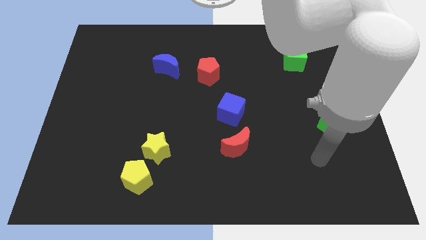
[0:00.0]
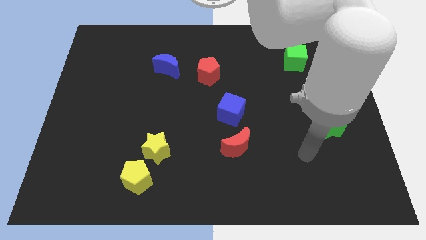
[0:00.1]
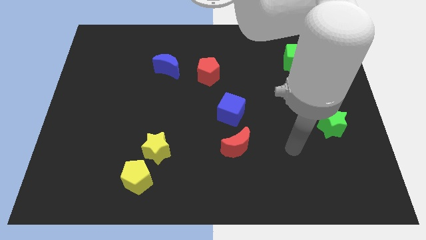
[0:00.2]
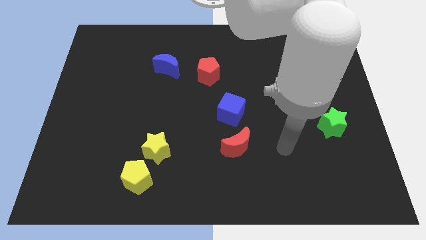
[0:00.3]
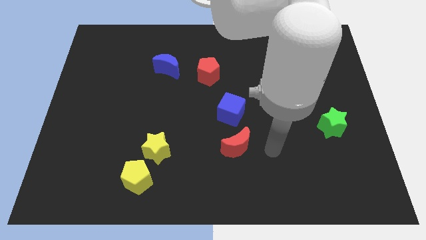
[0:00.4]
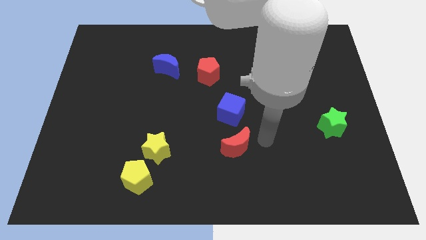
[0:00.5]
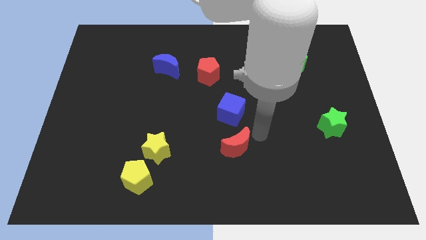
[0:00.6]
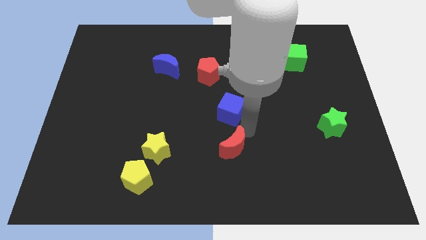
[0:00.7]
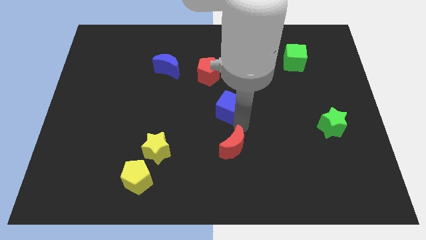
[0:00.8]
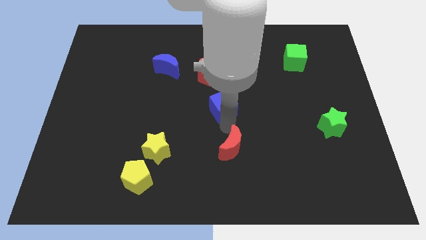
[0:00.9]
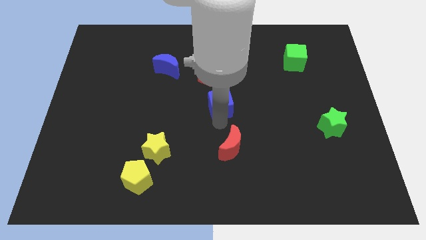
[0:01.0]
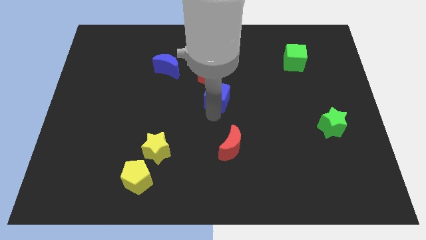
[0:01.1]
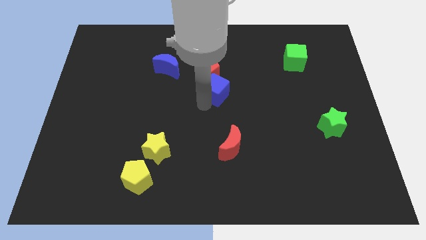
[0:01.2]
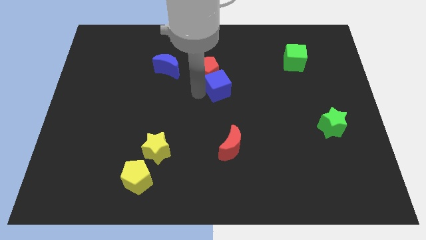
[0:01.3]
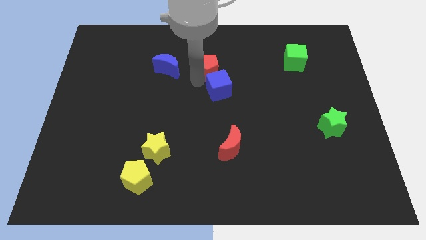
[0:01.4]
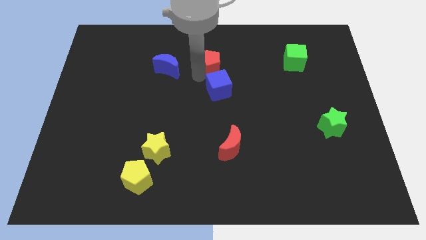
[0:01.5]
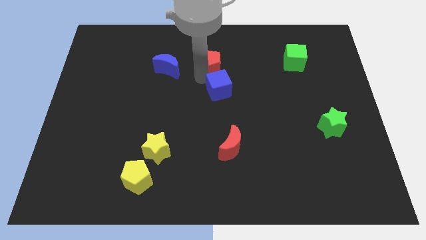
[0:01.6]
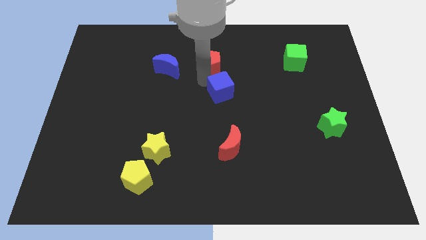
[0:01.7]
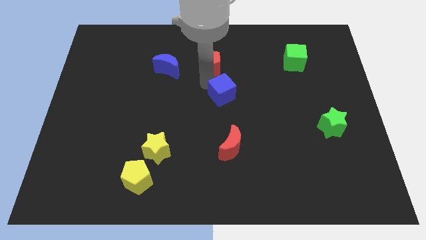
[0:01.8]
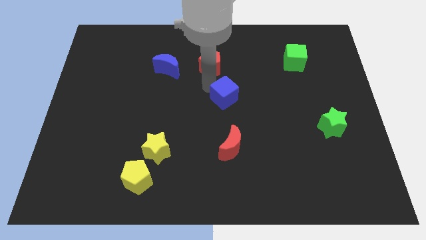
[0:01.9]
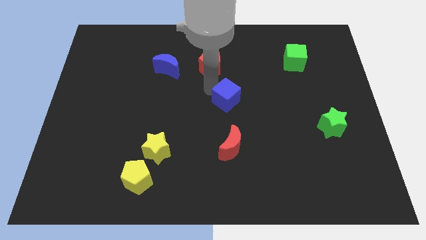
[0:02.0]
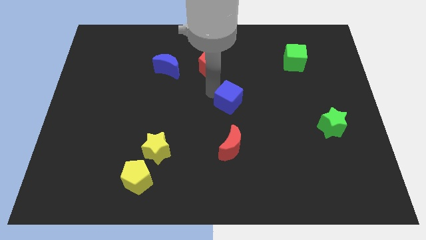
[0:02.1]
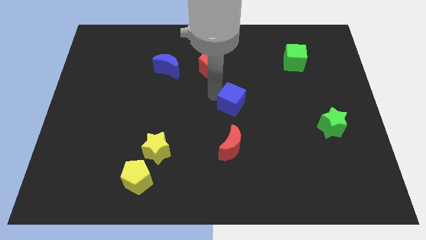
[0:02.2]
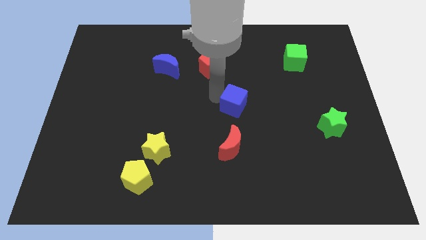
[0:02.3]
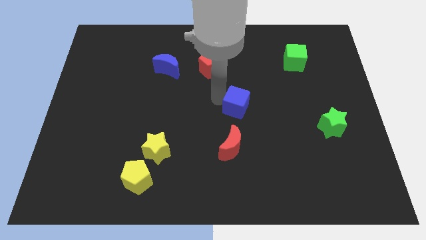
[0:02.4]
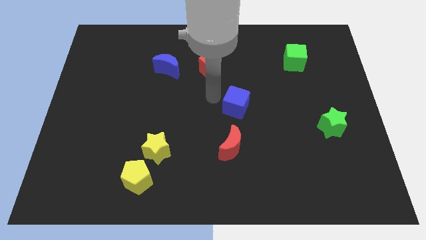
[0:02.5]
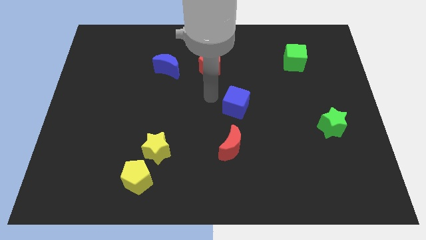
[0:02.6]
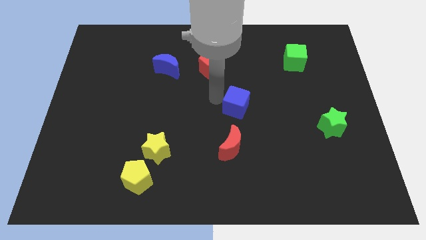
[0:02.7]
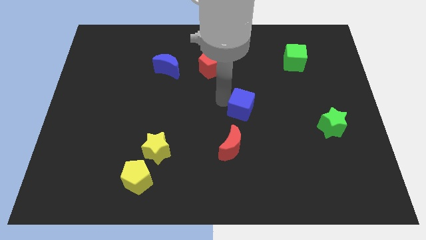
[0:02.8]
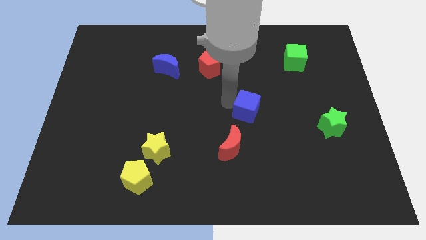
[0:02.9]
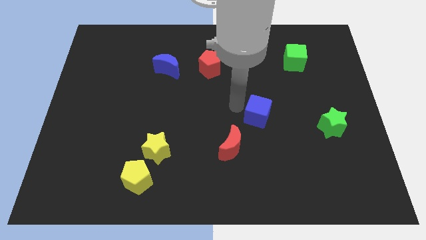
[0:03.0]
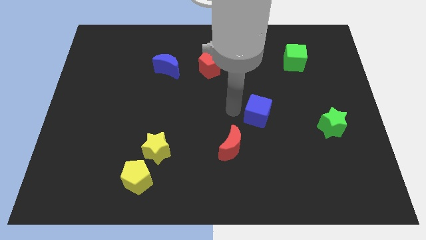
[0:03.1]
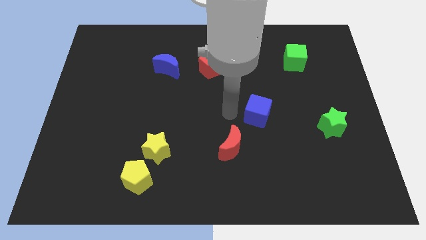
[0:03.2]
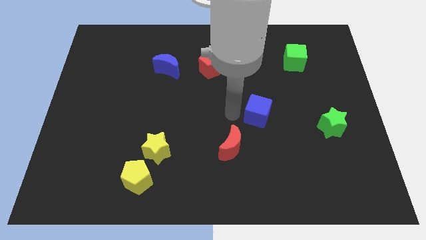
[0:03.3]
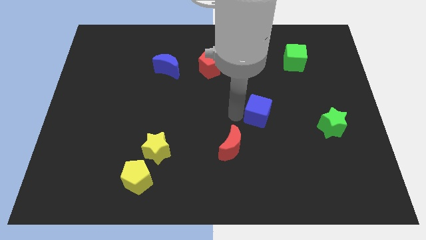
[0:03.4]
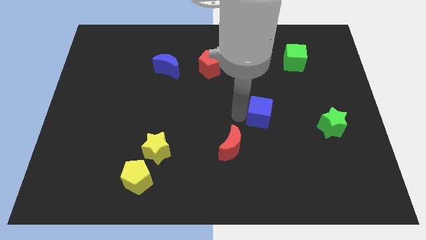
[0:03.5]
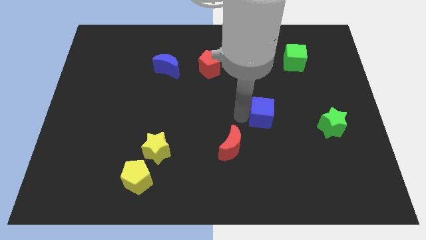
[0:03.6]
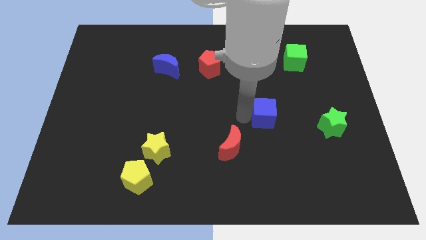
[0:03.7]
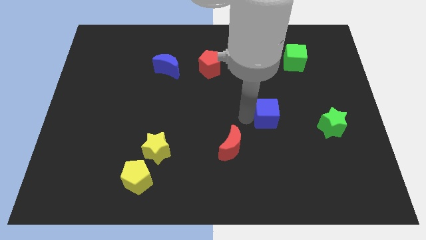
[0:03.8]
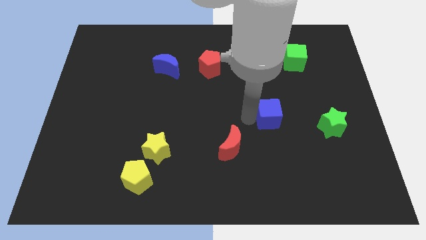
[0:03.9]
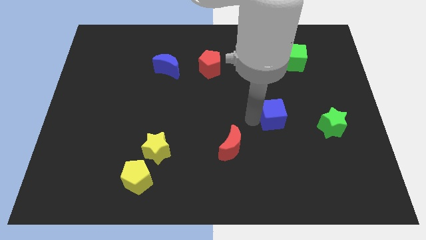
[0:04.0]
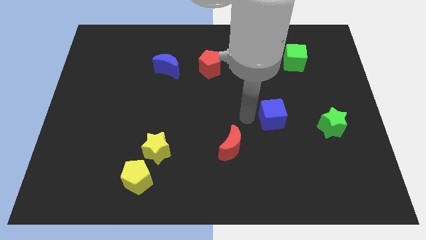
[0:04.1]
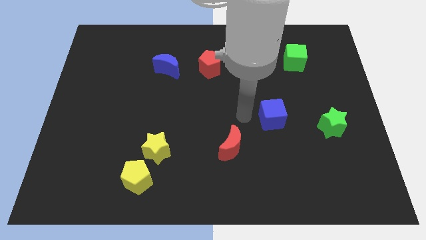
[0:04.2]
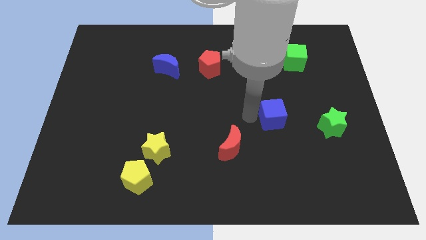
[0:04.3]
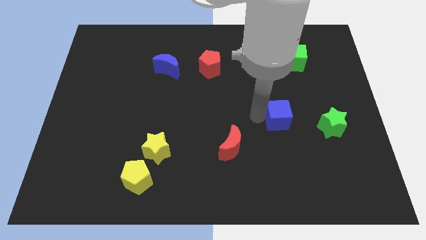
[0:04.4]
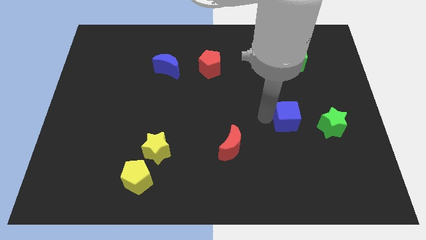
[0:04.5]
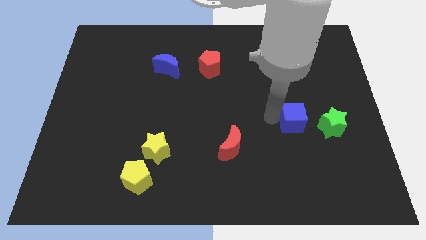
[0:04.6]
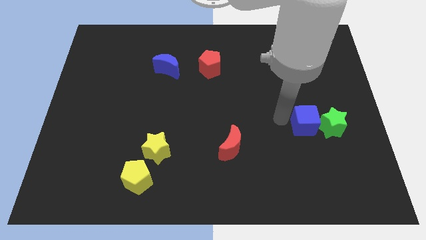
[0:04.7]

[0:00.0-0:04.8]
move the blue cube next to the green star

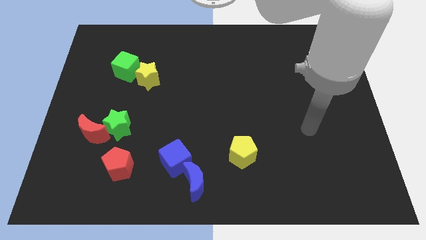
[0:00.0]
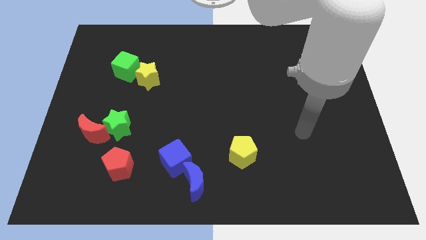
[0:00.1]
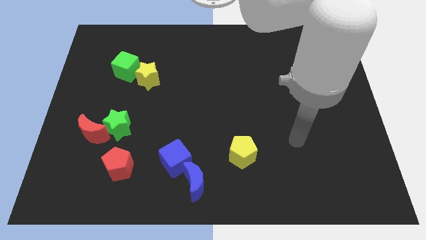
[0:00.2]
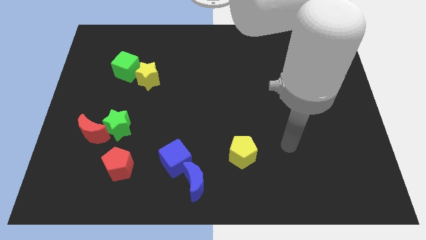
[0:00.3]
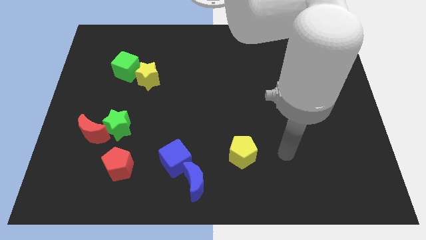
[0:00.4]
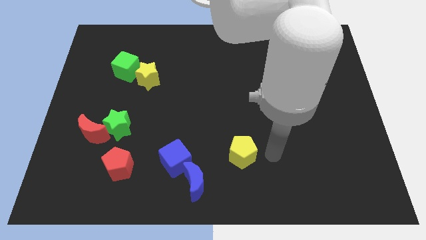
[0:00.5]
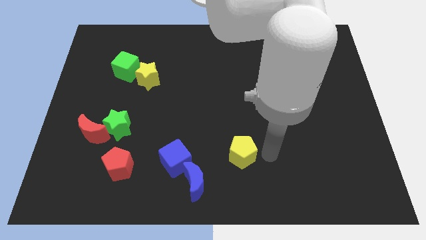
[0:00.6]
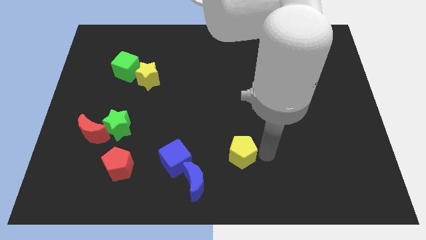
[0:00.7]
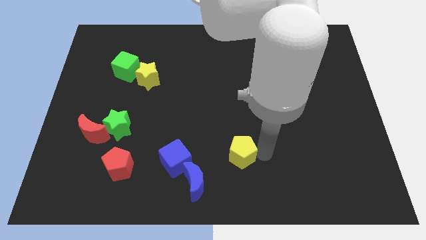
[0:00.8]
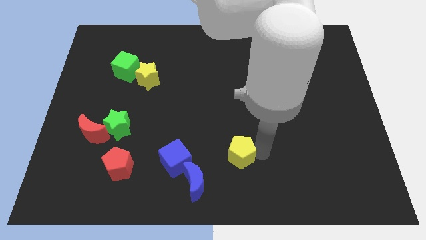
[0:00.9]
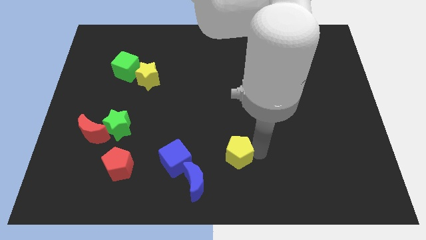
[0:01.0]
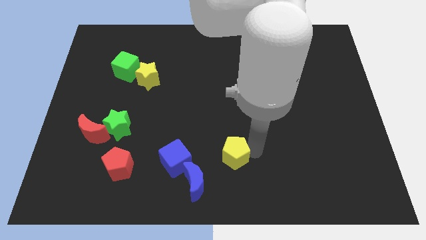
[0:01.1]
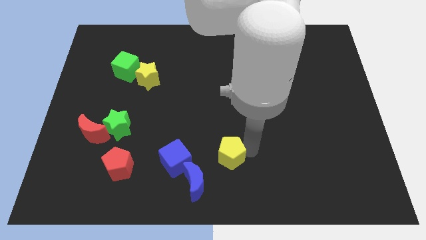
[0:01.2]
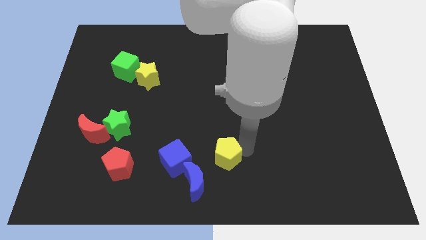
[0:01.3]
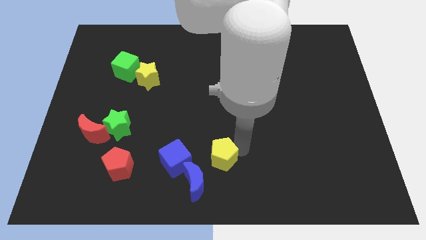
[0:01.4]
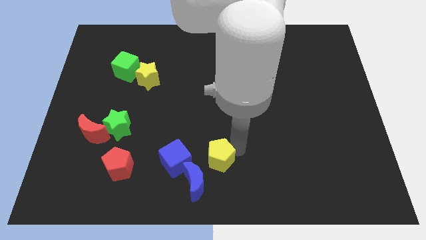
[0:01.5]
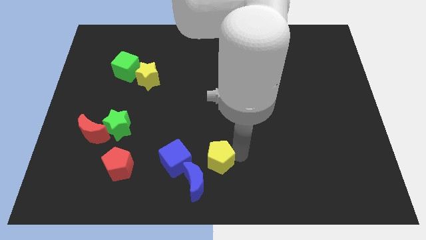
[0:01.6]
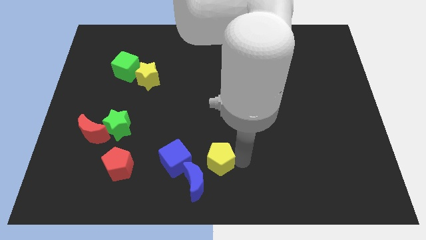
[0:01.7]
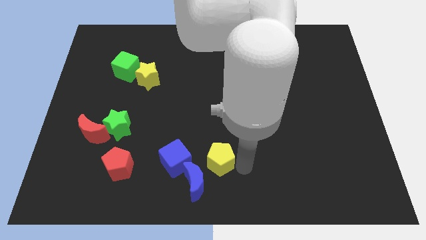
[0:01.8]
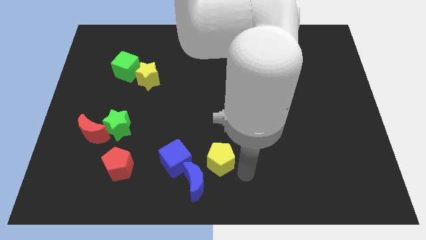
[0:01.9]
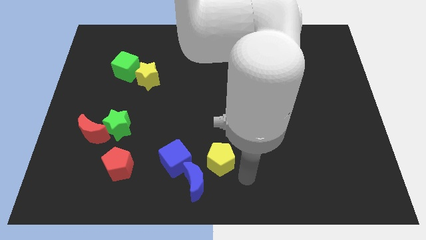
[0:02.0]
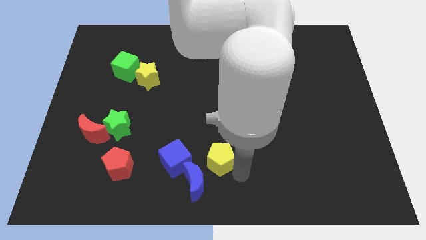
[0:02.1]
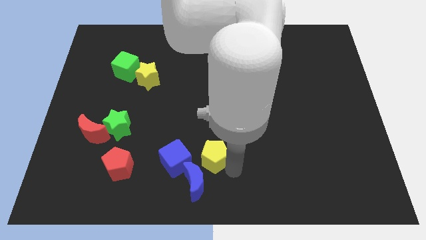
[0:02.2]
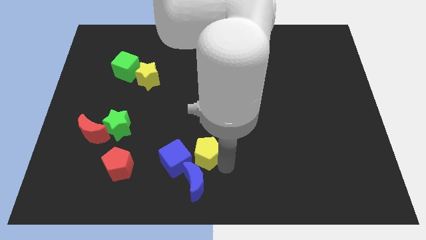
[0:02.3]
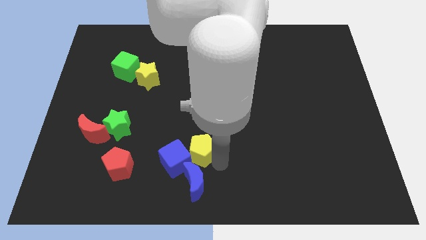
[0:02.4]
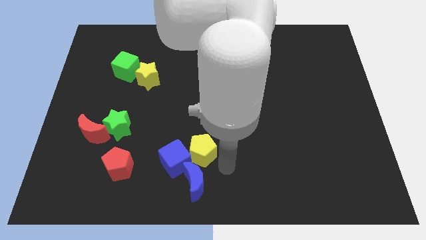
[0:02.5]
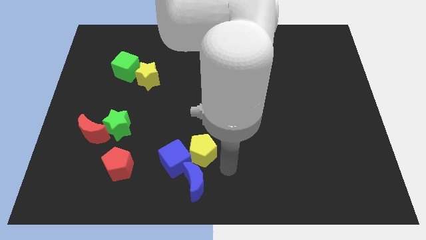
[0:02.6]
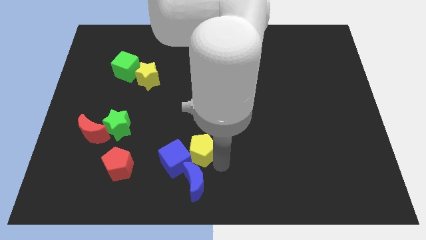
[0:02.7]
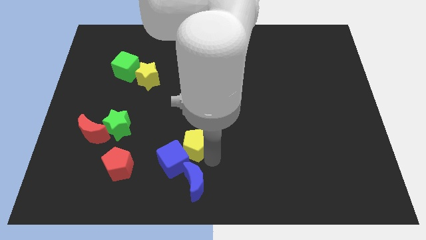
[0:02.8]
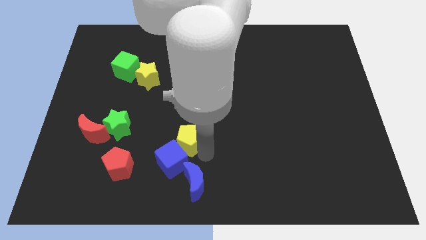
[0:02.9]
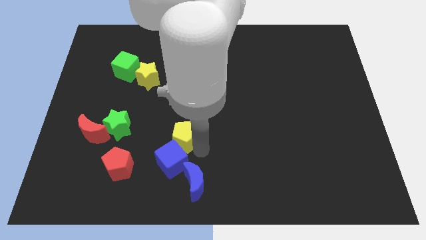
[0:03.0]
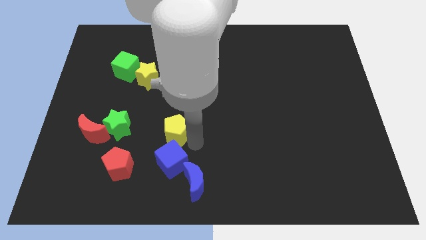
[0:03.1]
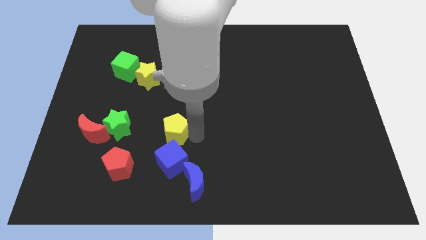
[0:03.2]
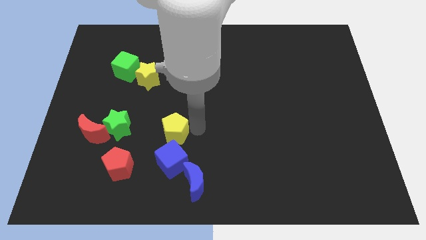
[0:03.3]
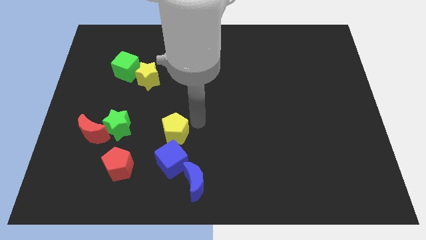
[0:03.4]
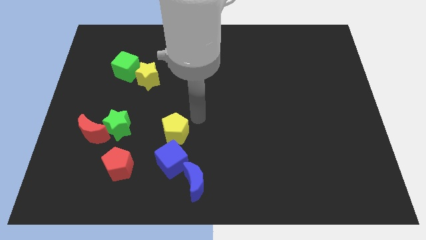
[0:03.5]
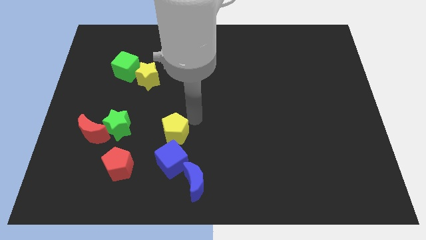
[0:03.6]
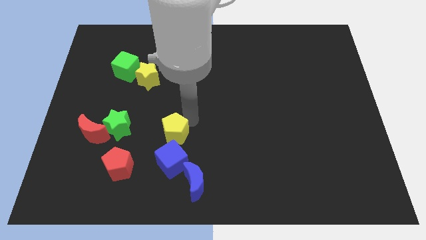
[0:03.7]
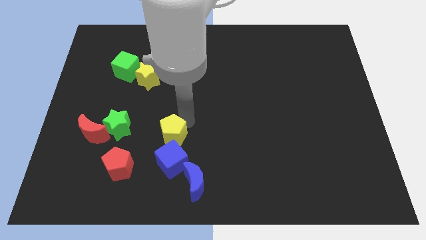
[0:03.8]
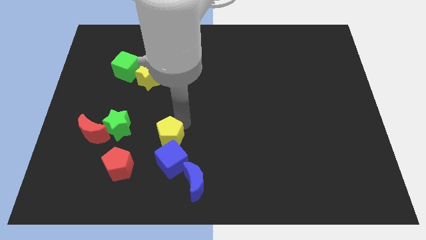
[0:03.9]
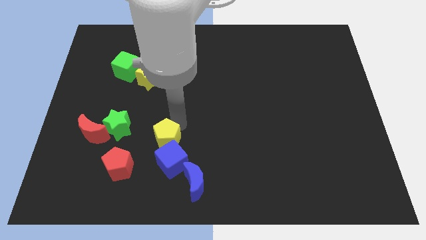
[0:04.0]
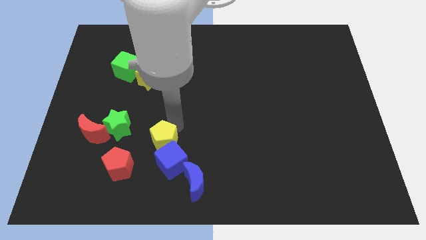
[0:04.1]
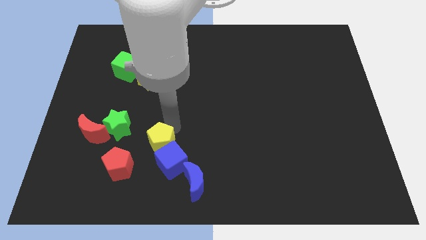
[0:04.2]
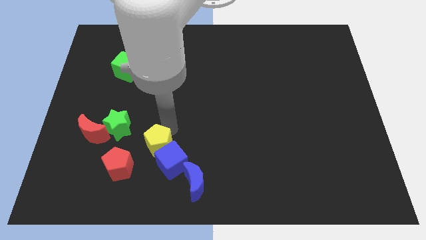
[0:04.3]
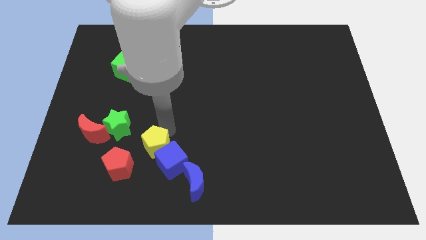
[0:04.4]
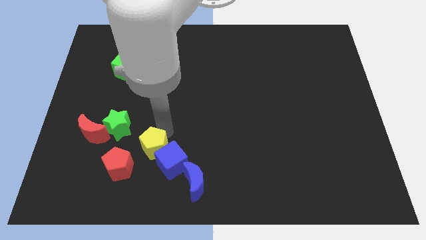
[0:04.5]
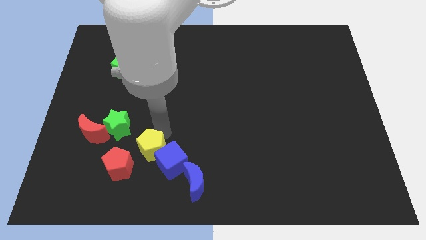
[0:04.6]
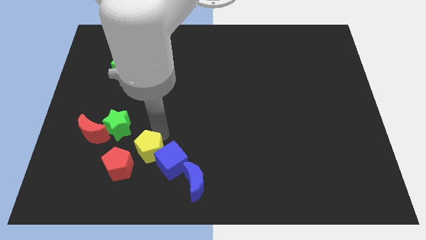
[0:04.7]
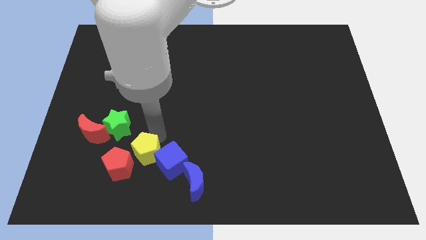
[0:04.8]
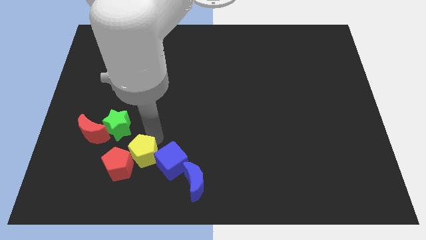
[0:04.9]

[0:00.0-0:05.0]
push the yellow pentagon to the red pentagon
